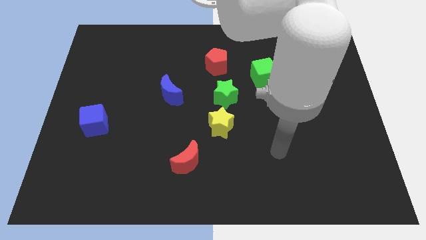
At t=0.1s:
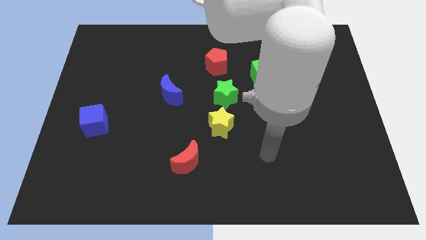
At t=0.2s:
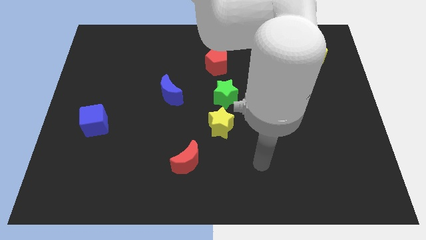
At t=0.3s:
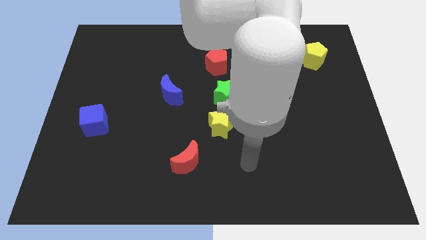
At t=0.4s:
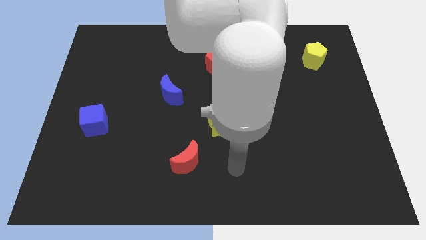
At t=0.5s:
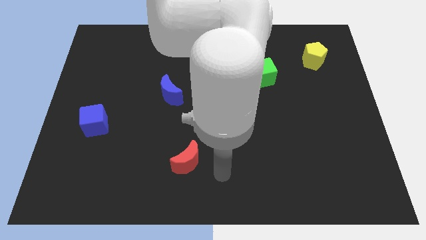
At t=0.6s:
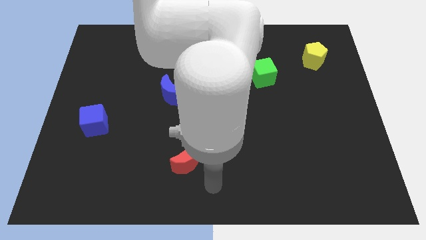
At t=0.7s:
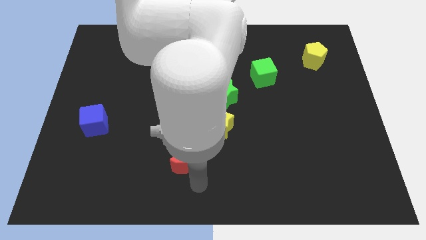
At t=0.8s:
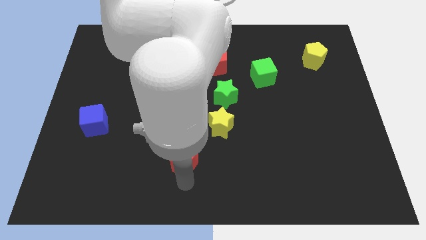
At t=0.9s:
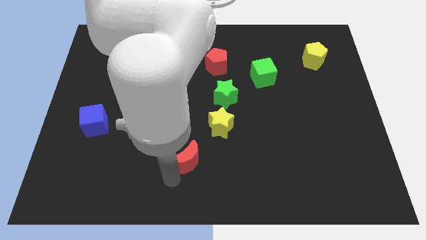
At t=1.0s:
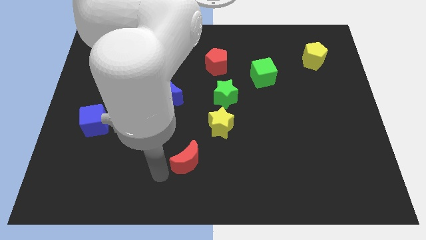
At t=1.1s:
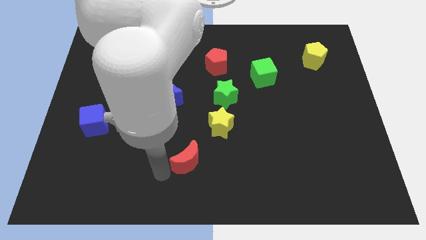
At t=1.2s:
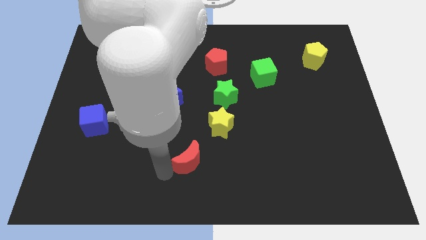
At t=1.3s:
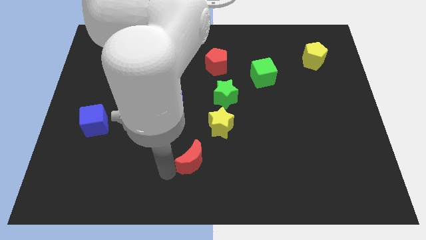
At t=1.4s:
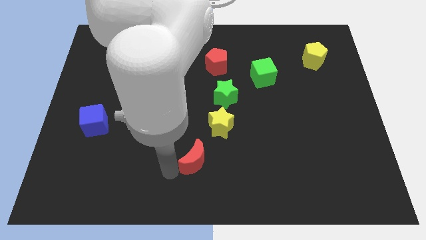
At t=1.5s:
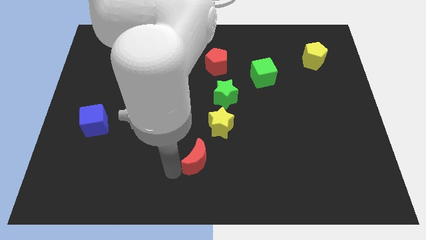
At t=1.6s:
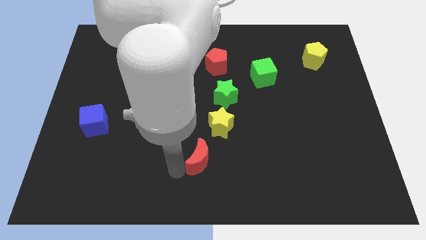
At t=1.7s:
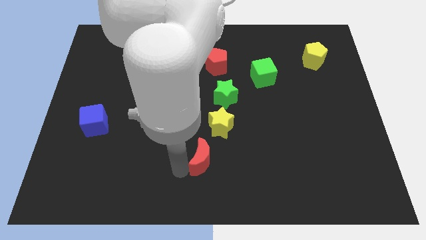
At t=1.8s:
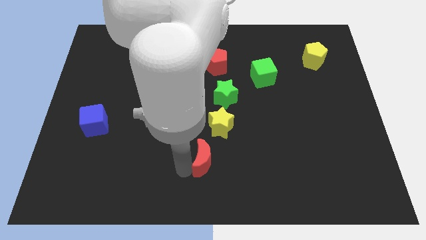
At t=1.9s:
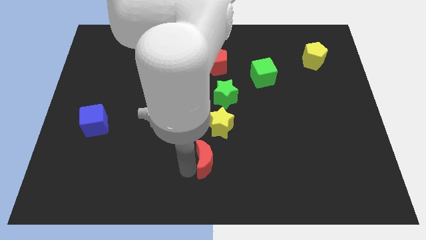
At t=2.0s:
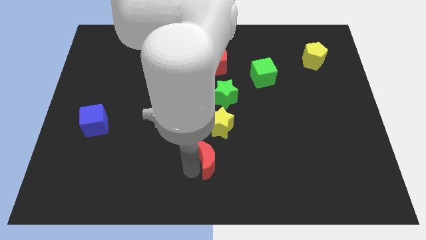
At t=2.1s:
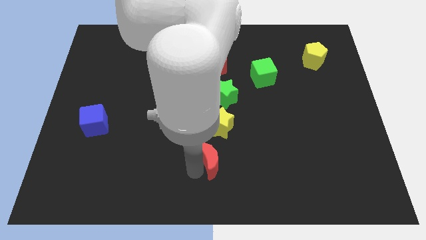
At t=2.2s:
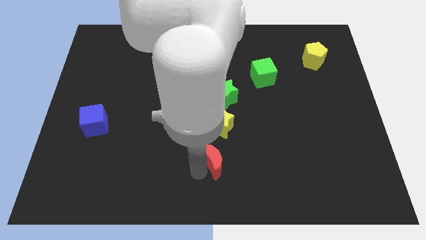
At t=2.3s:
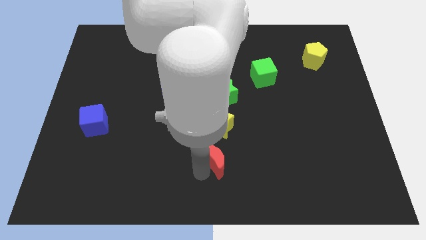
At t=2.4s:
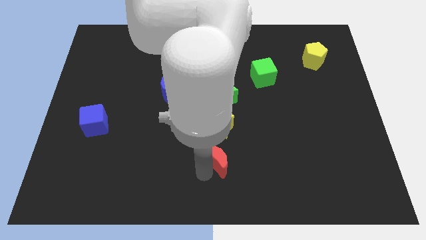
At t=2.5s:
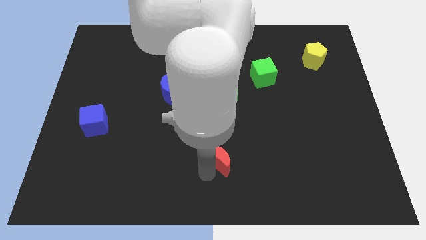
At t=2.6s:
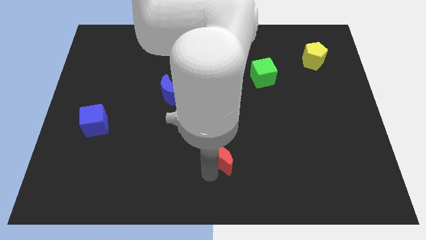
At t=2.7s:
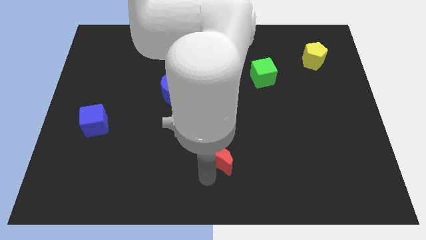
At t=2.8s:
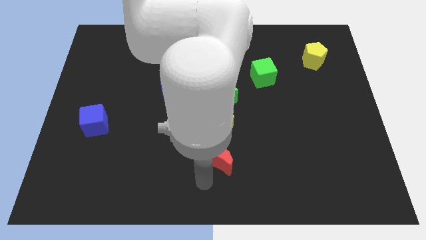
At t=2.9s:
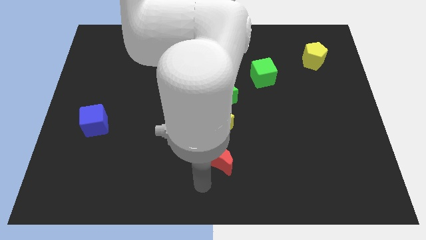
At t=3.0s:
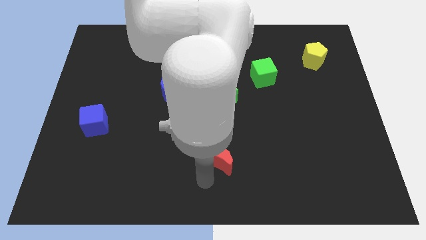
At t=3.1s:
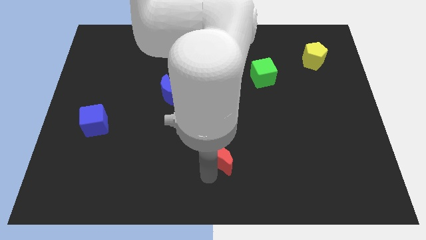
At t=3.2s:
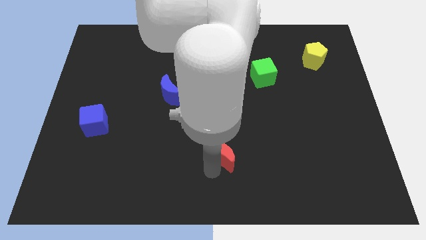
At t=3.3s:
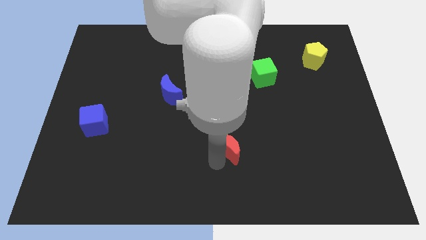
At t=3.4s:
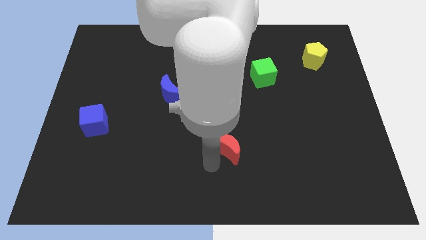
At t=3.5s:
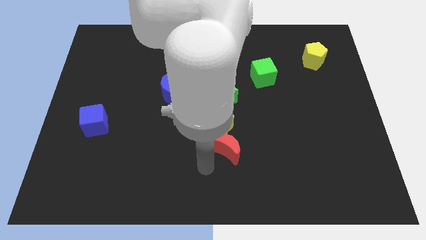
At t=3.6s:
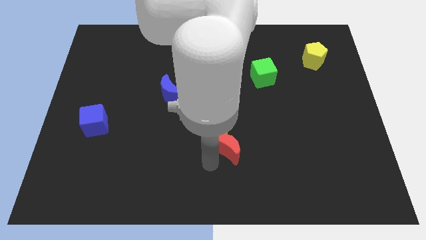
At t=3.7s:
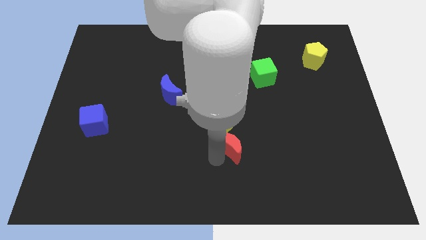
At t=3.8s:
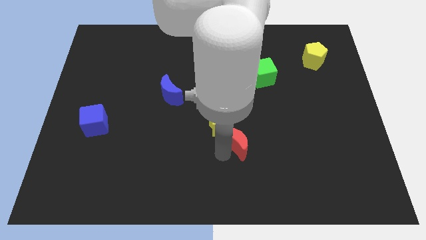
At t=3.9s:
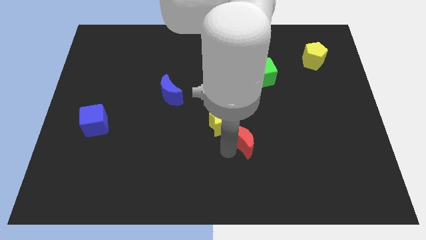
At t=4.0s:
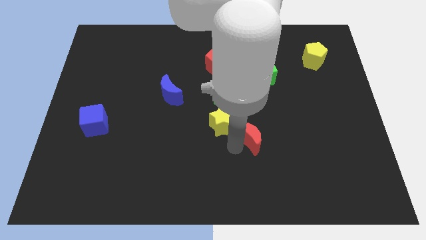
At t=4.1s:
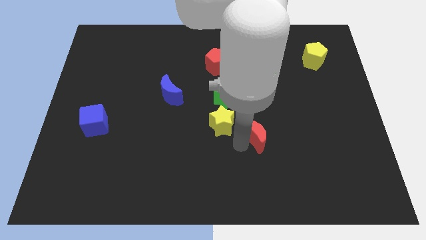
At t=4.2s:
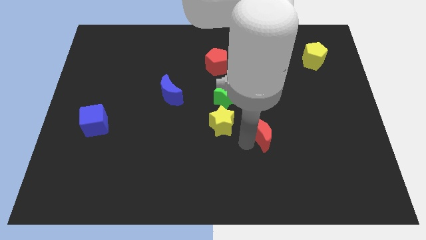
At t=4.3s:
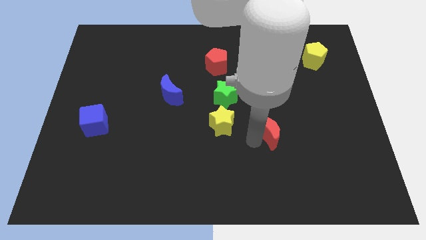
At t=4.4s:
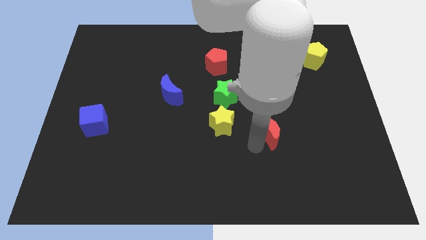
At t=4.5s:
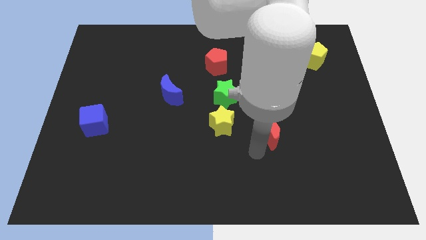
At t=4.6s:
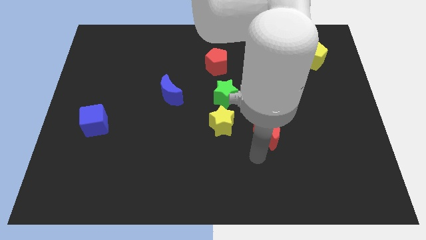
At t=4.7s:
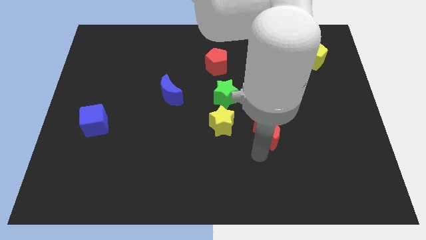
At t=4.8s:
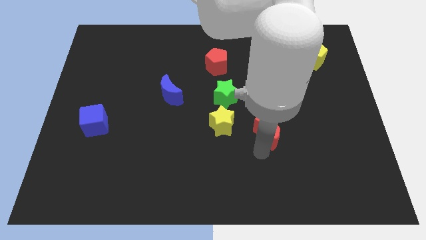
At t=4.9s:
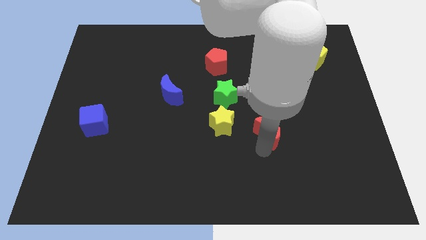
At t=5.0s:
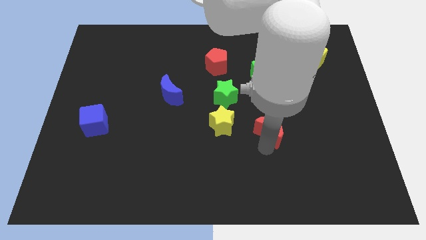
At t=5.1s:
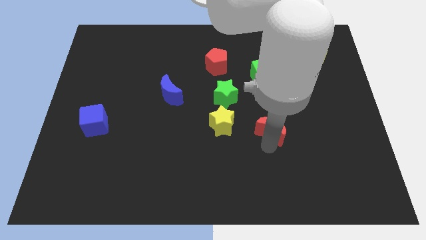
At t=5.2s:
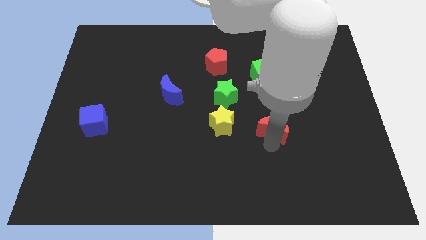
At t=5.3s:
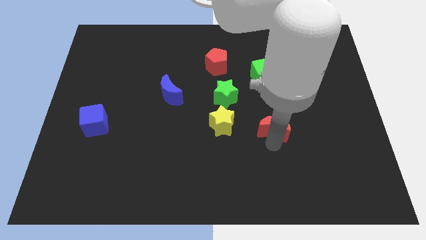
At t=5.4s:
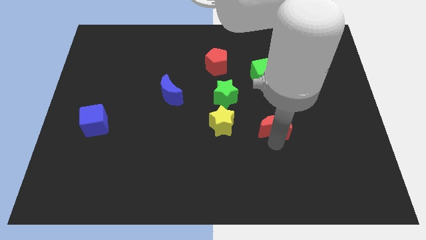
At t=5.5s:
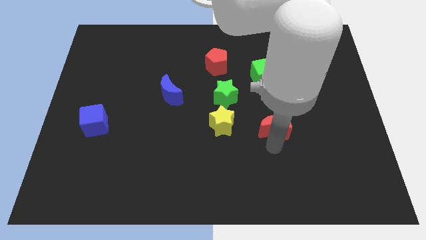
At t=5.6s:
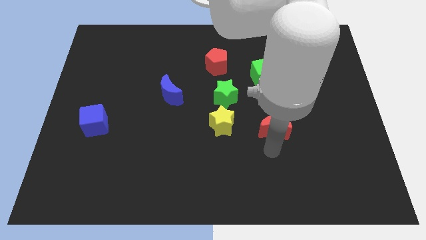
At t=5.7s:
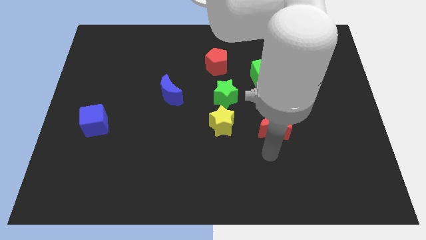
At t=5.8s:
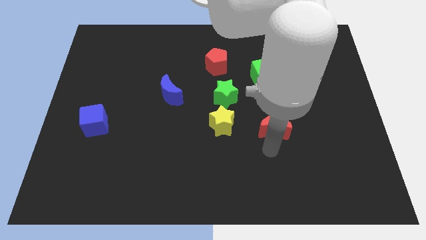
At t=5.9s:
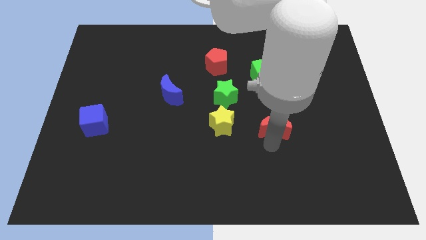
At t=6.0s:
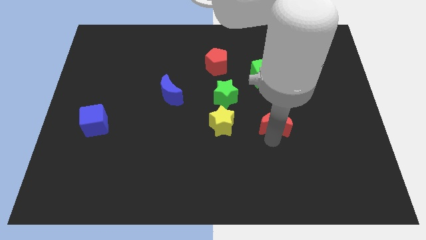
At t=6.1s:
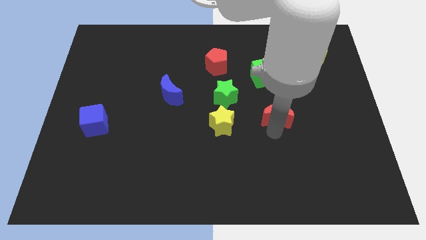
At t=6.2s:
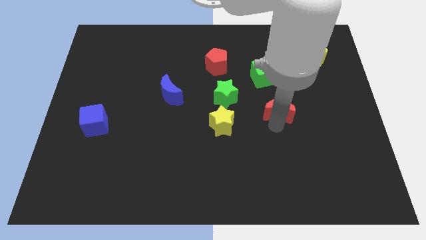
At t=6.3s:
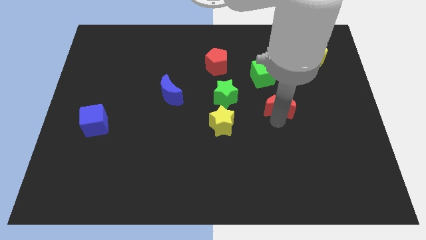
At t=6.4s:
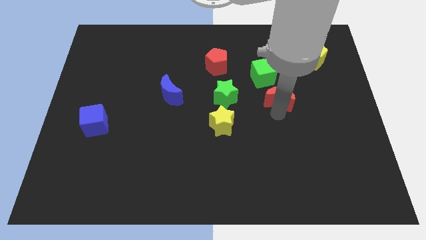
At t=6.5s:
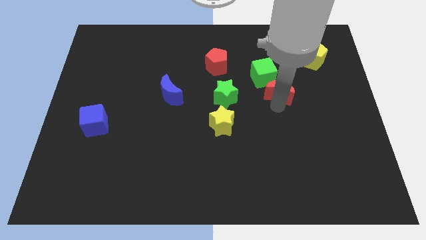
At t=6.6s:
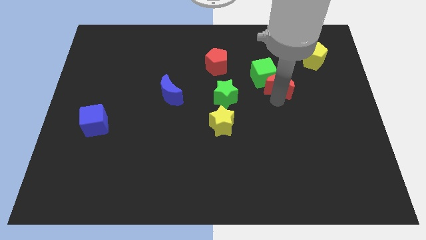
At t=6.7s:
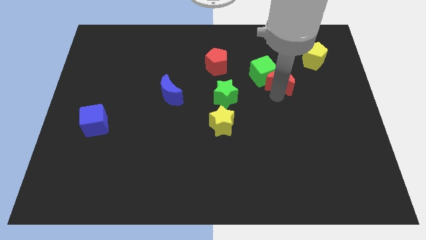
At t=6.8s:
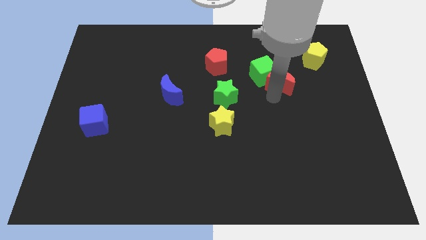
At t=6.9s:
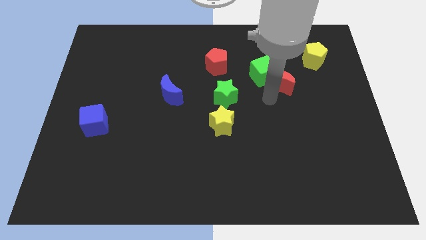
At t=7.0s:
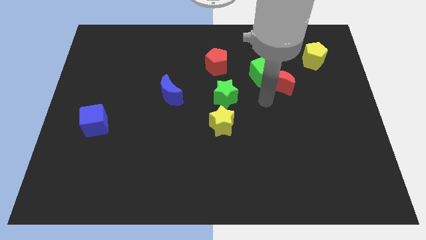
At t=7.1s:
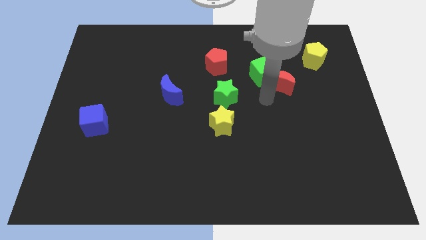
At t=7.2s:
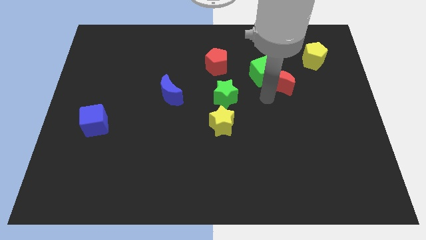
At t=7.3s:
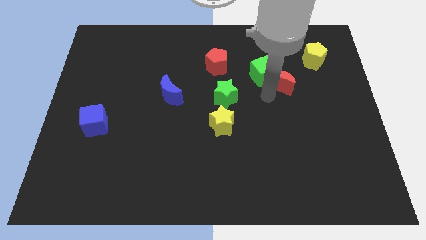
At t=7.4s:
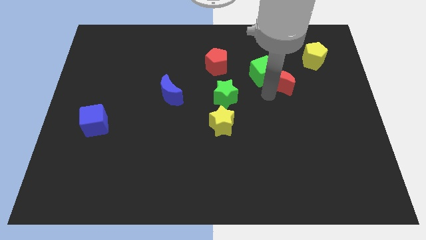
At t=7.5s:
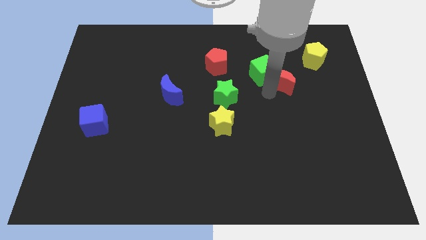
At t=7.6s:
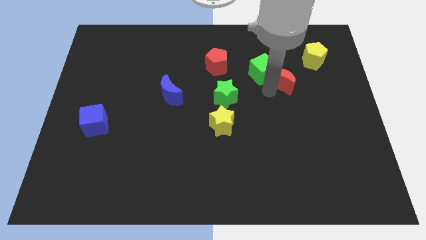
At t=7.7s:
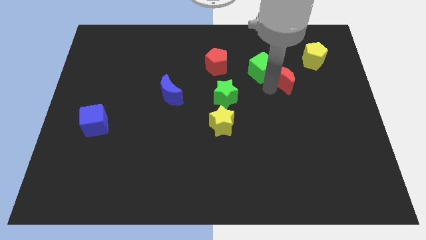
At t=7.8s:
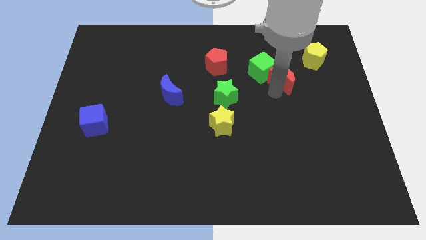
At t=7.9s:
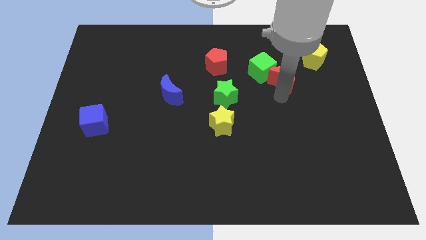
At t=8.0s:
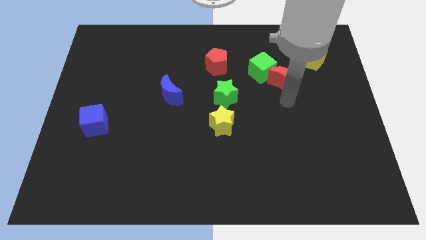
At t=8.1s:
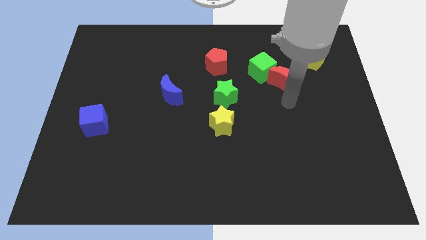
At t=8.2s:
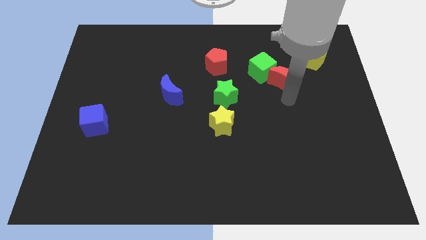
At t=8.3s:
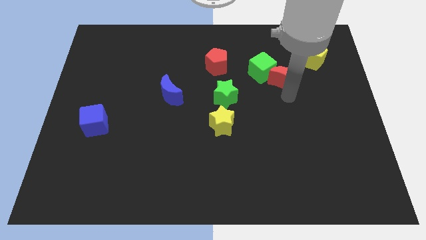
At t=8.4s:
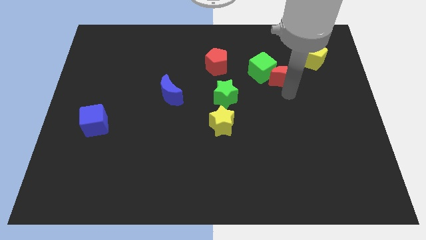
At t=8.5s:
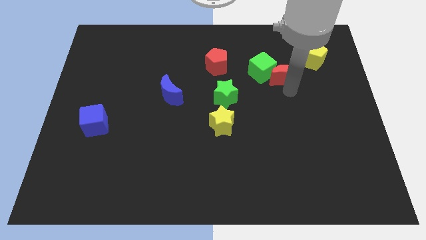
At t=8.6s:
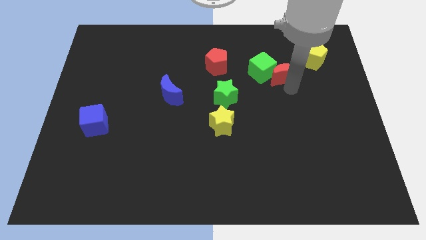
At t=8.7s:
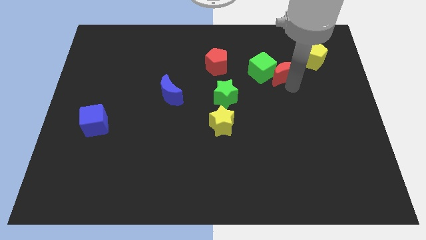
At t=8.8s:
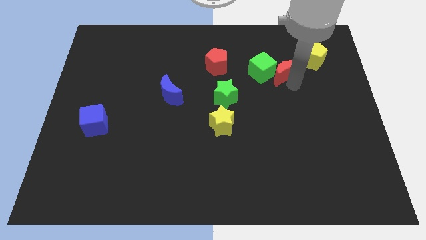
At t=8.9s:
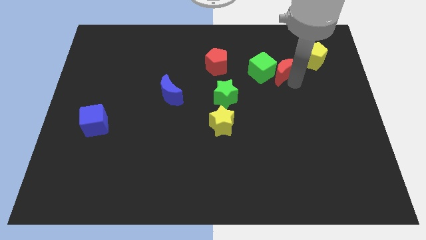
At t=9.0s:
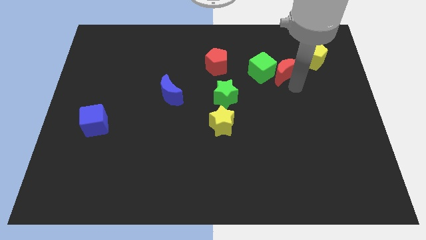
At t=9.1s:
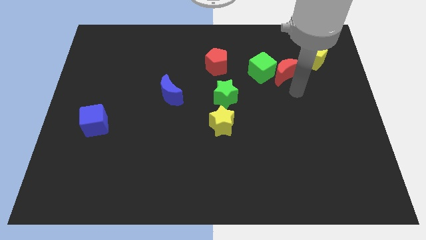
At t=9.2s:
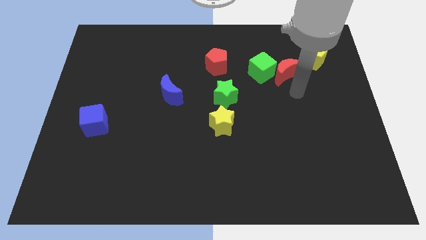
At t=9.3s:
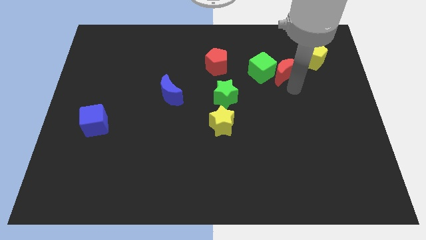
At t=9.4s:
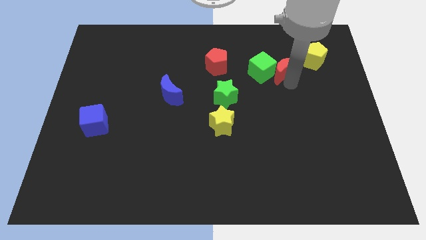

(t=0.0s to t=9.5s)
put the red moon to the left side of the yellow pentagon
